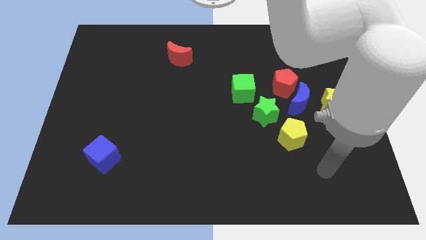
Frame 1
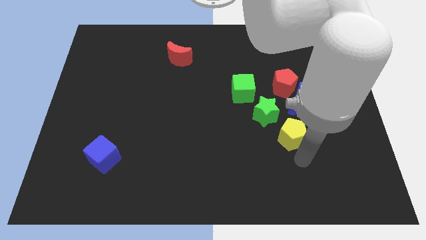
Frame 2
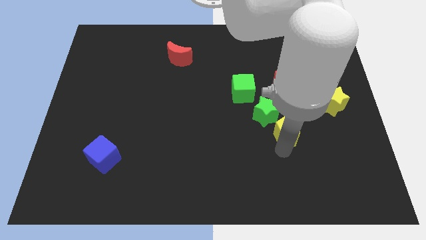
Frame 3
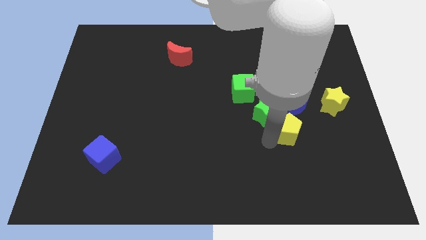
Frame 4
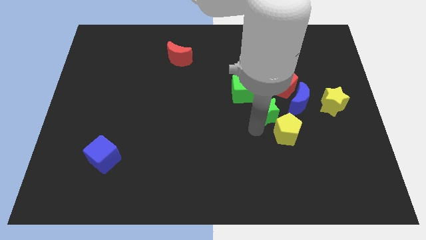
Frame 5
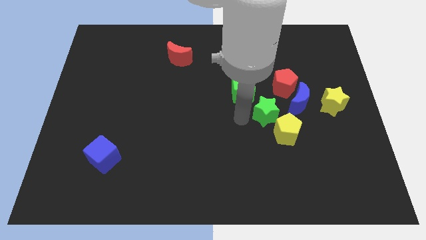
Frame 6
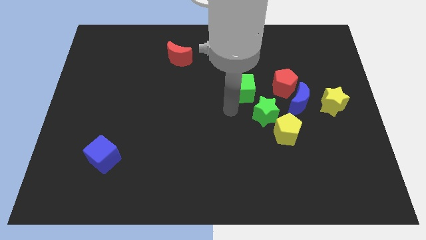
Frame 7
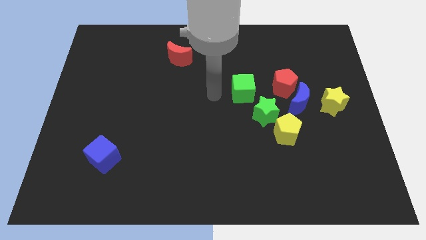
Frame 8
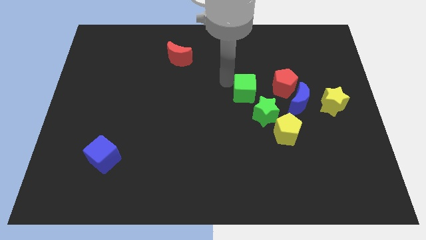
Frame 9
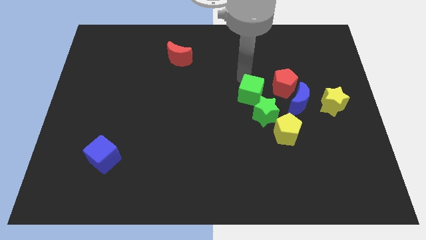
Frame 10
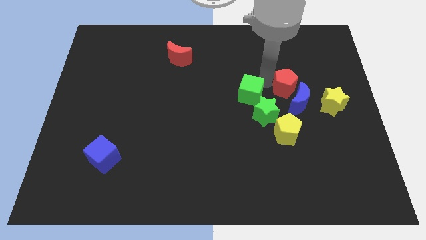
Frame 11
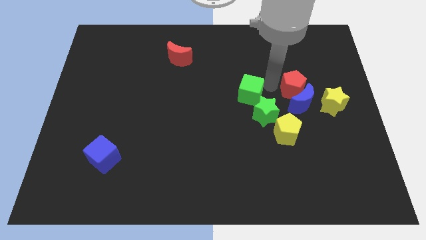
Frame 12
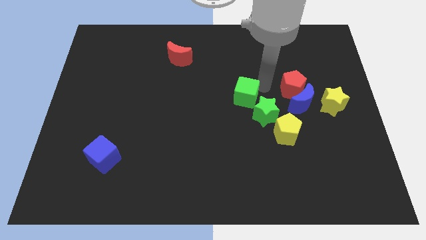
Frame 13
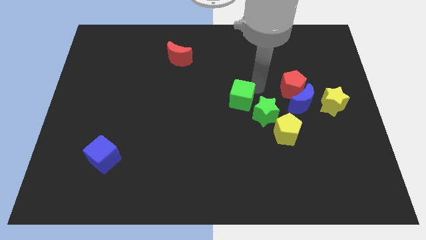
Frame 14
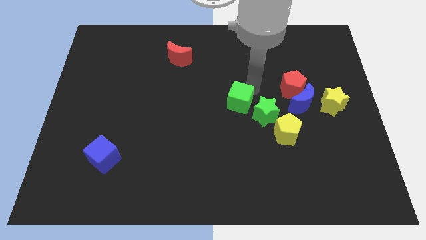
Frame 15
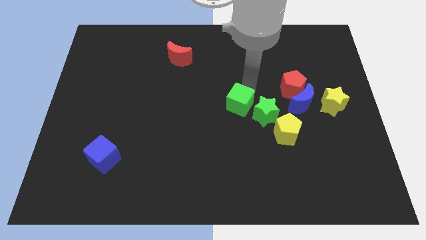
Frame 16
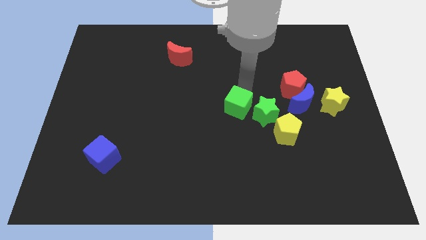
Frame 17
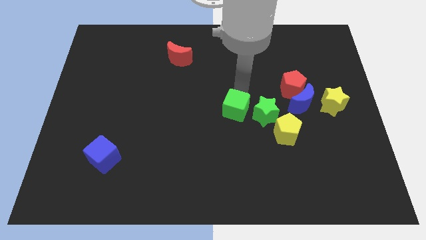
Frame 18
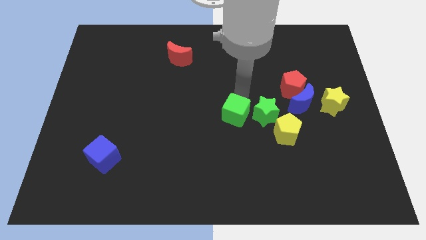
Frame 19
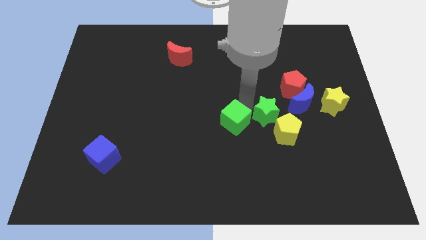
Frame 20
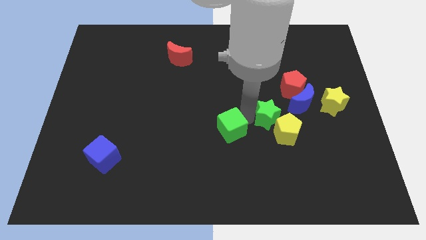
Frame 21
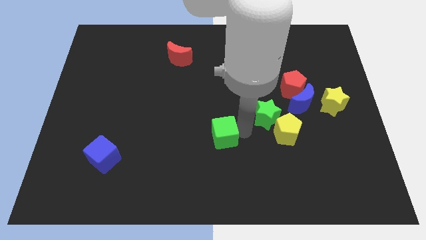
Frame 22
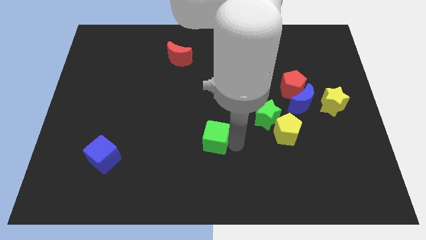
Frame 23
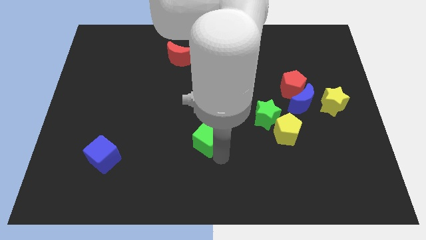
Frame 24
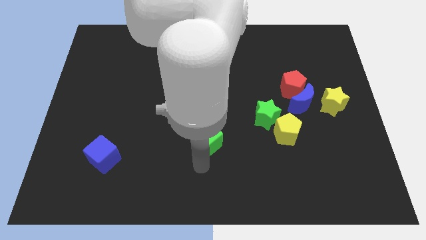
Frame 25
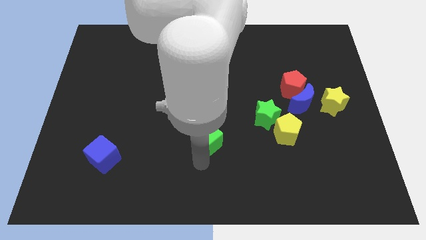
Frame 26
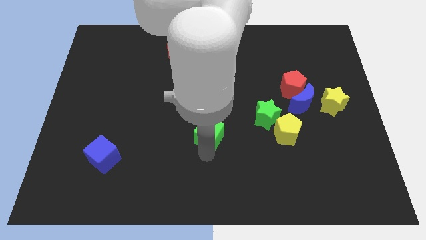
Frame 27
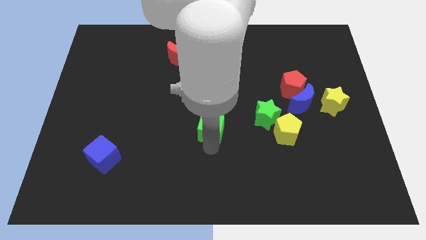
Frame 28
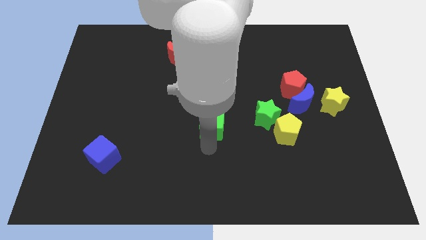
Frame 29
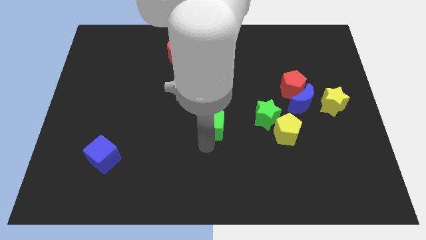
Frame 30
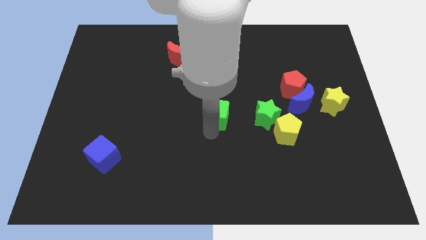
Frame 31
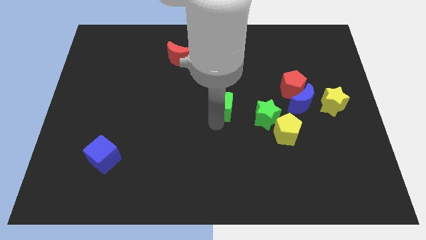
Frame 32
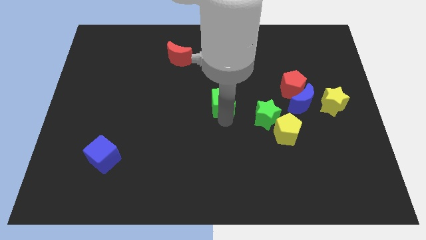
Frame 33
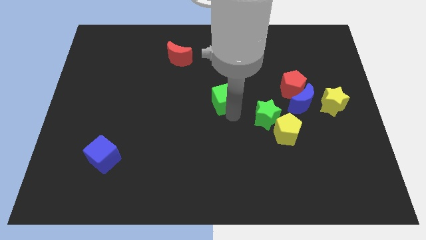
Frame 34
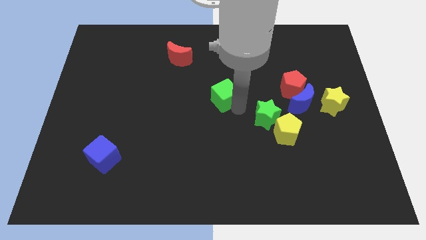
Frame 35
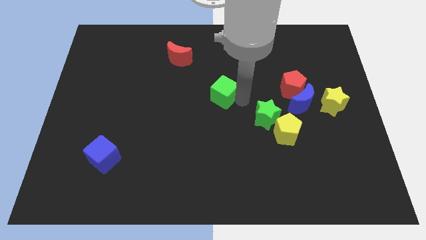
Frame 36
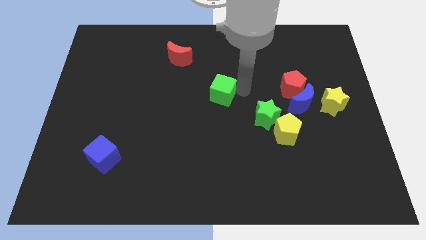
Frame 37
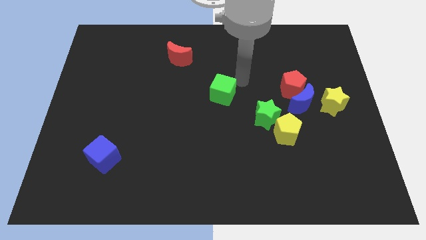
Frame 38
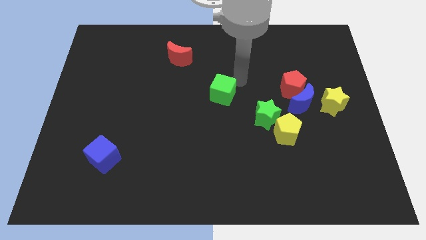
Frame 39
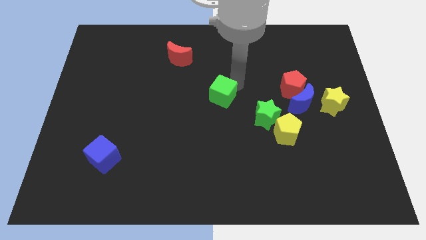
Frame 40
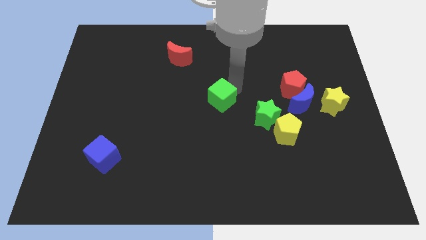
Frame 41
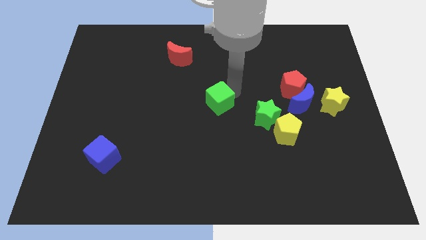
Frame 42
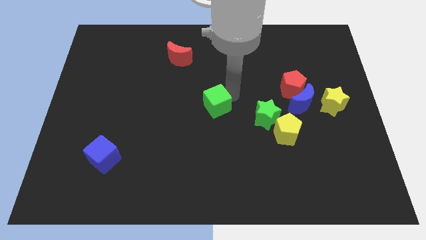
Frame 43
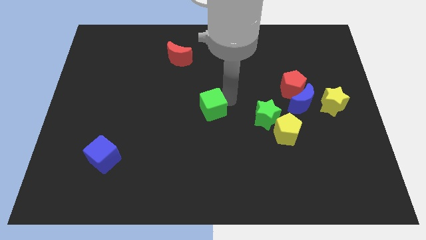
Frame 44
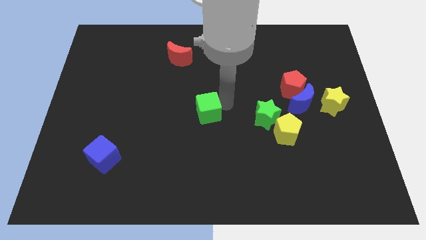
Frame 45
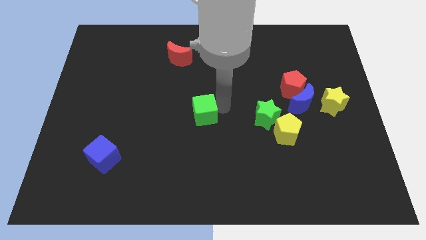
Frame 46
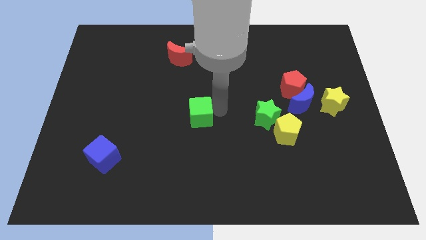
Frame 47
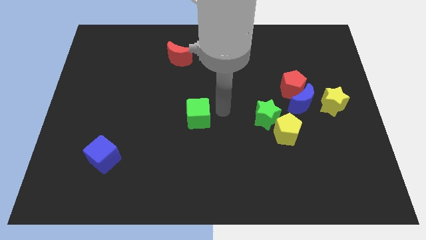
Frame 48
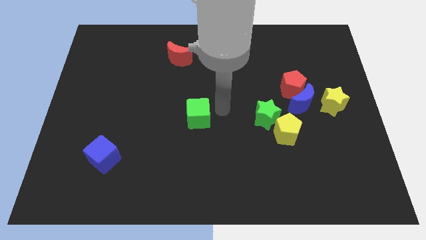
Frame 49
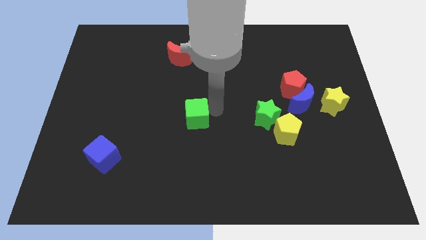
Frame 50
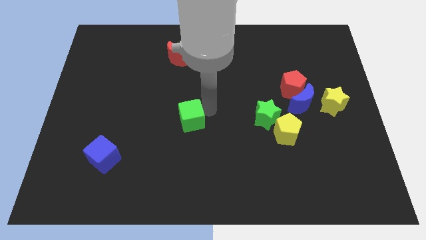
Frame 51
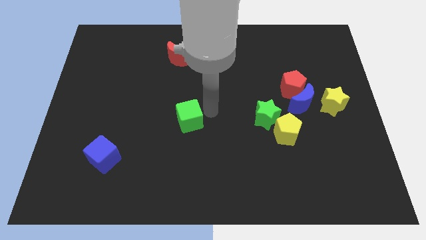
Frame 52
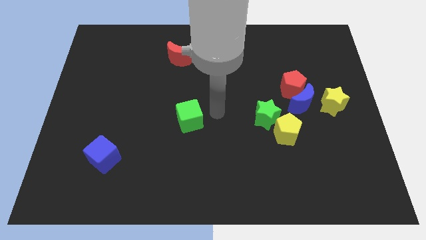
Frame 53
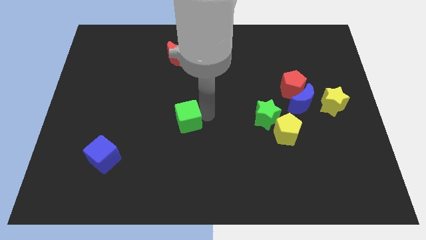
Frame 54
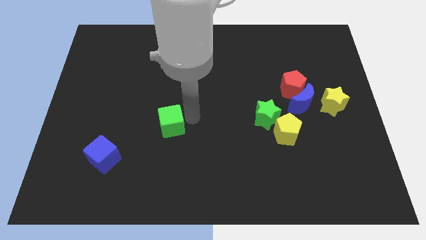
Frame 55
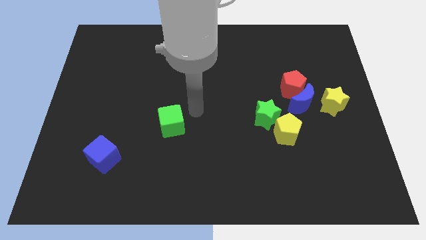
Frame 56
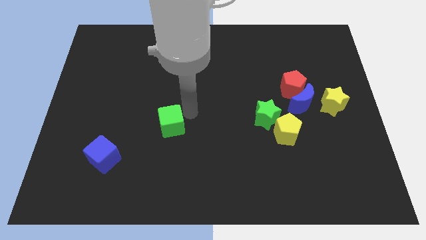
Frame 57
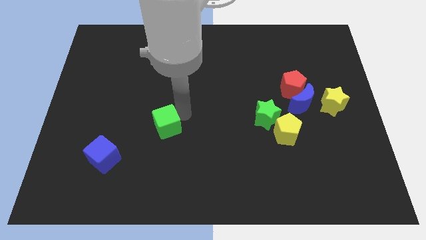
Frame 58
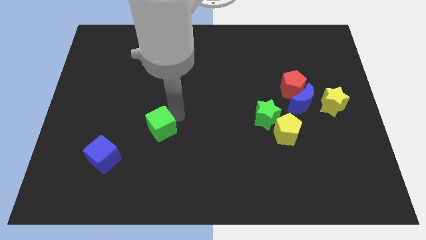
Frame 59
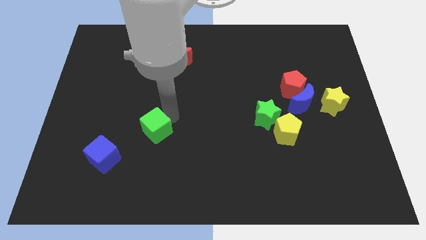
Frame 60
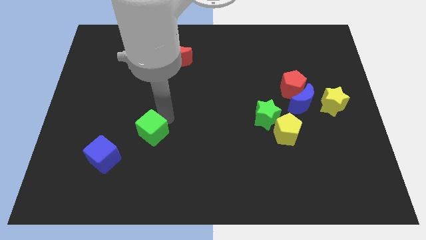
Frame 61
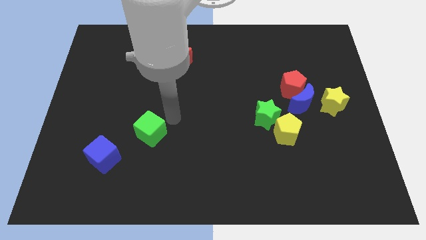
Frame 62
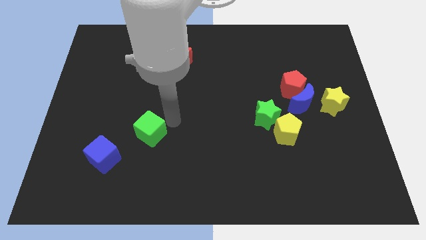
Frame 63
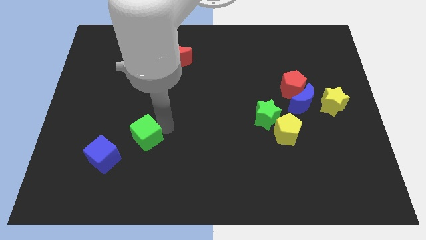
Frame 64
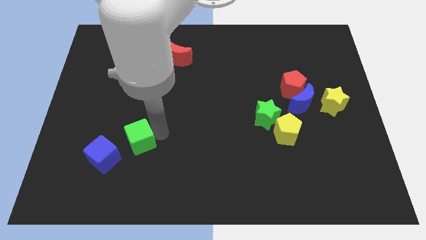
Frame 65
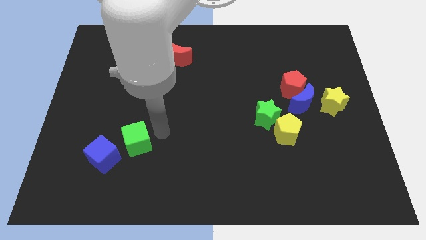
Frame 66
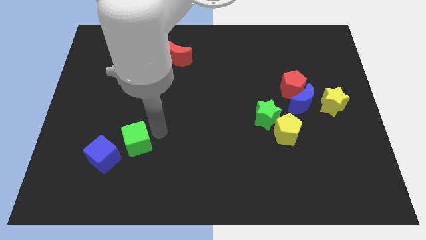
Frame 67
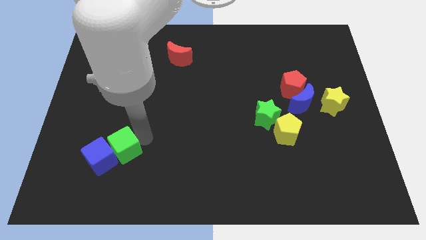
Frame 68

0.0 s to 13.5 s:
push the green cube towards the blue cube

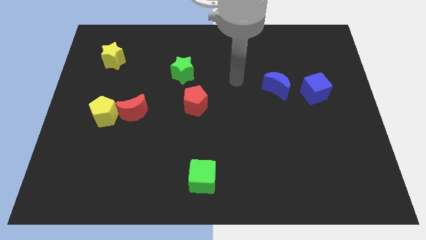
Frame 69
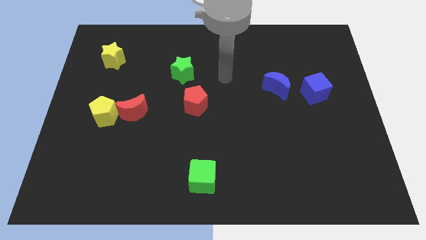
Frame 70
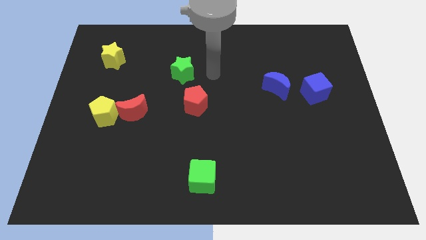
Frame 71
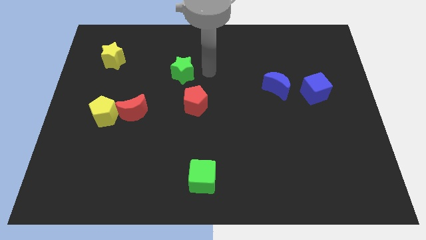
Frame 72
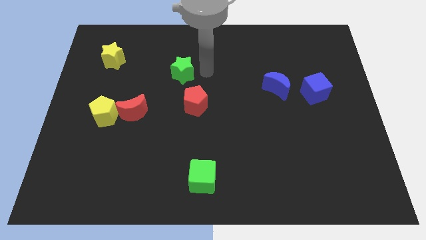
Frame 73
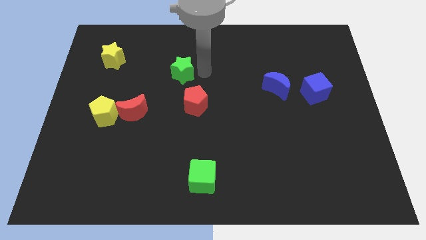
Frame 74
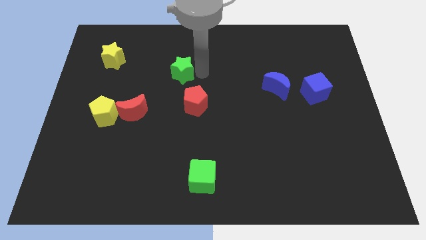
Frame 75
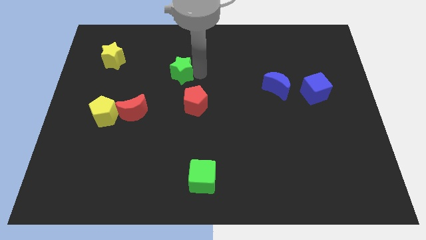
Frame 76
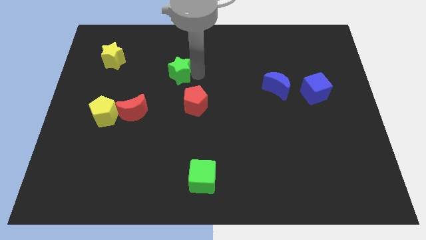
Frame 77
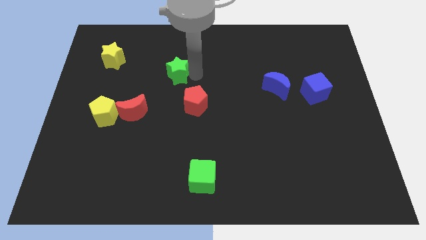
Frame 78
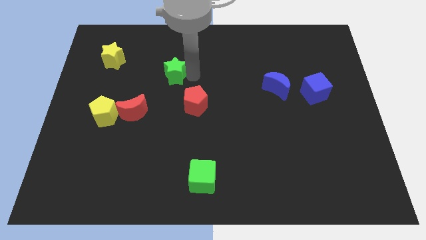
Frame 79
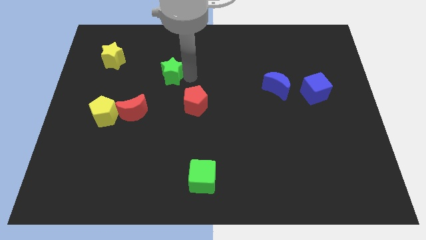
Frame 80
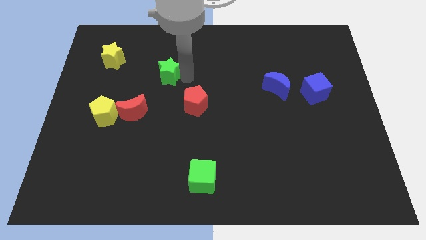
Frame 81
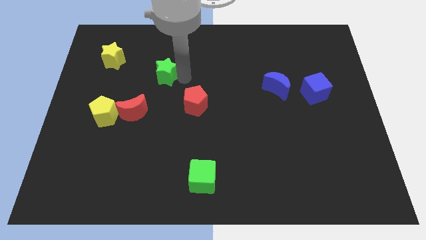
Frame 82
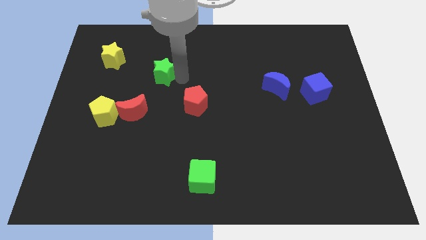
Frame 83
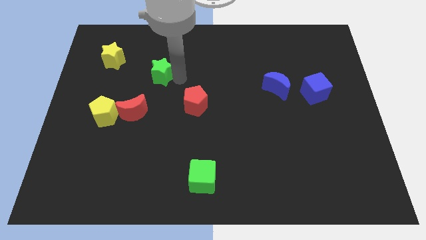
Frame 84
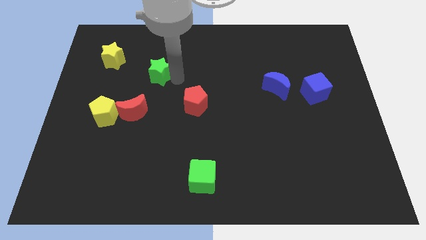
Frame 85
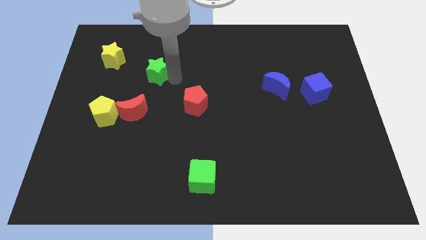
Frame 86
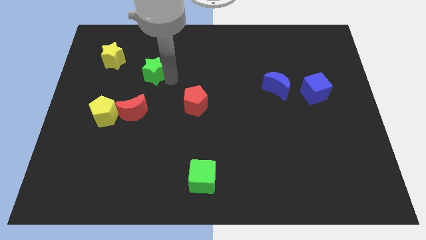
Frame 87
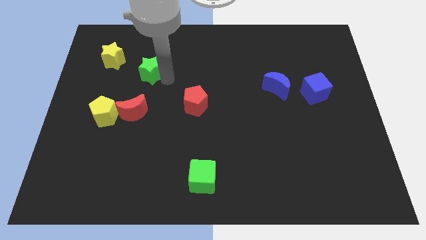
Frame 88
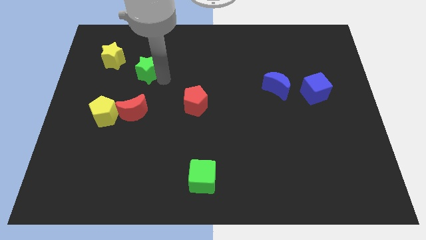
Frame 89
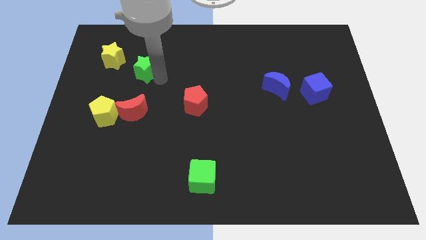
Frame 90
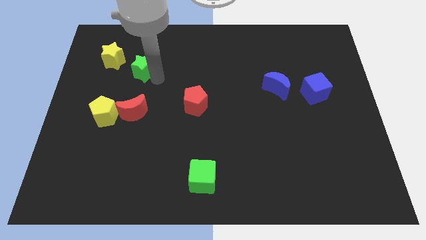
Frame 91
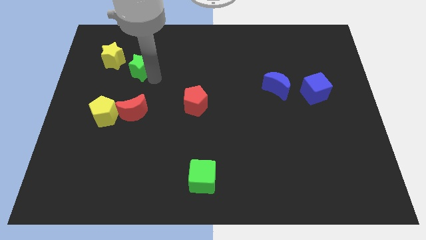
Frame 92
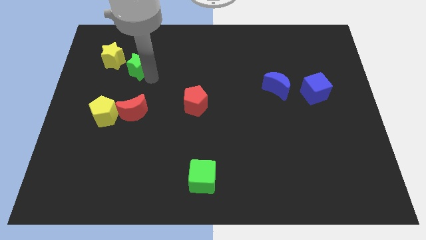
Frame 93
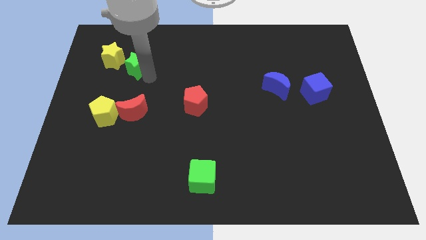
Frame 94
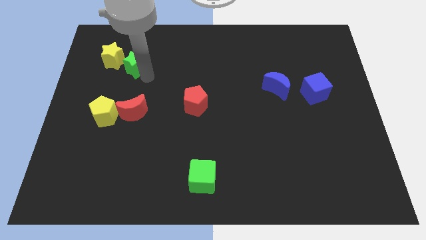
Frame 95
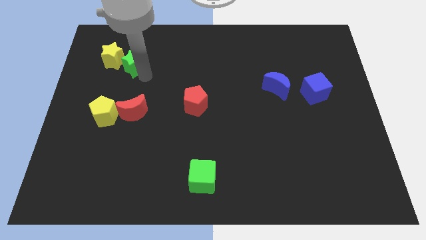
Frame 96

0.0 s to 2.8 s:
push the green star close to the yellow star
